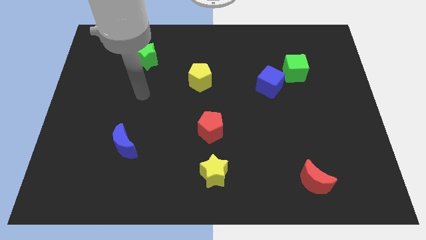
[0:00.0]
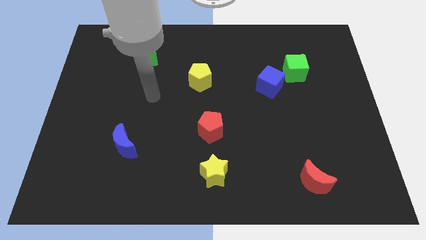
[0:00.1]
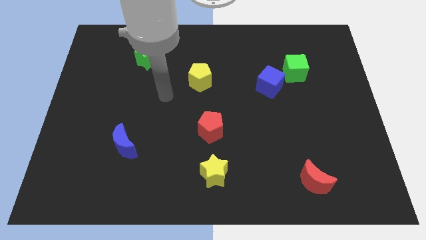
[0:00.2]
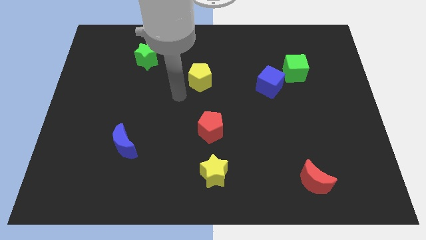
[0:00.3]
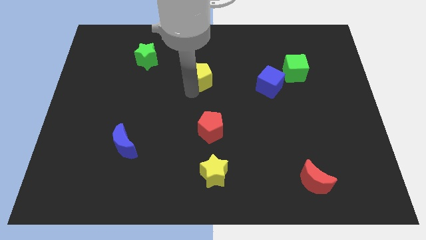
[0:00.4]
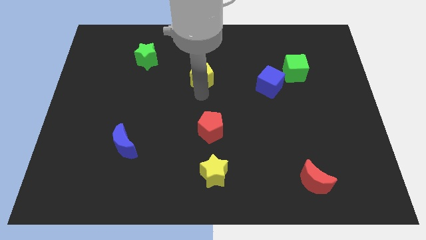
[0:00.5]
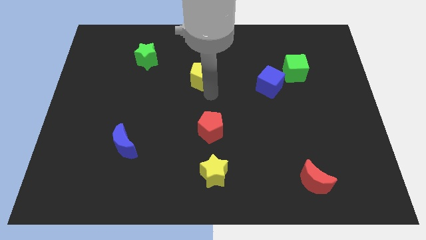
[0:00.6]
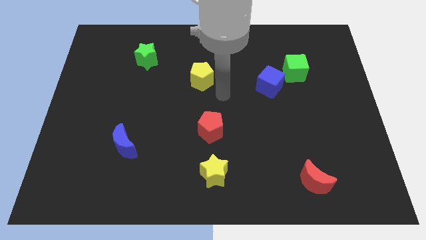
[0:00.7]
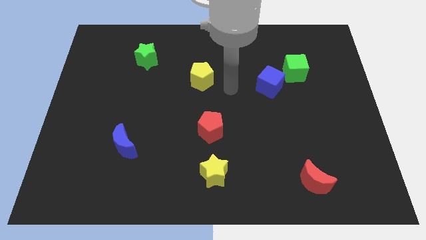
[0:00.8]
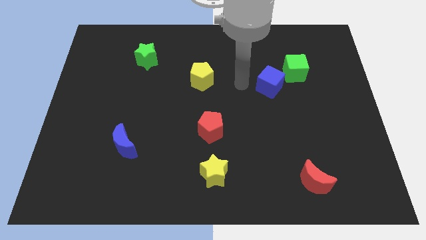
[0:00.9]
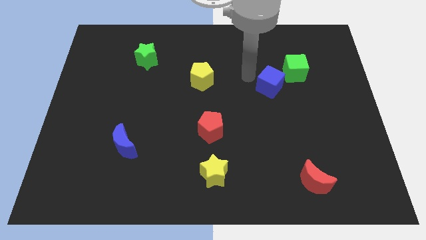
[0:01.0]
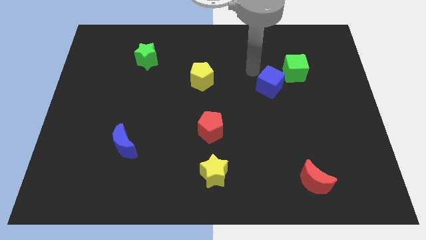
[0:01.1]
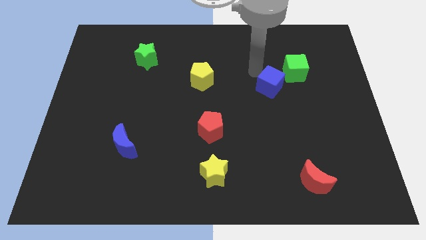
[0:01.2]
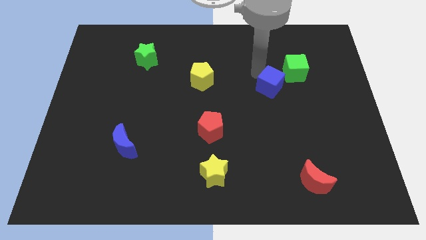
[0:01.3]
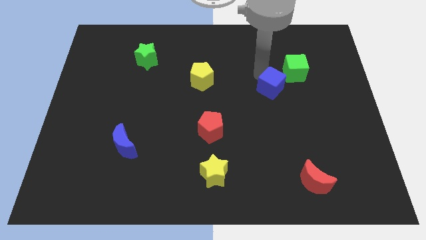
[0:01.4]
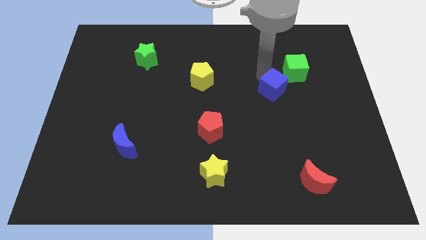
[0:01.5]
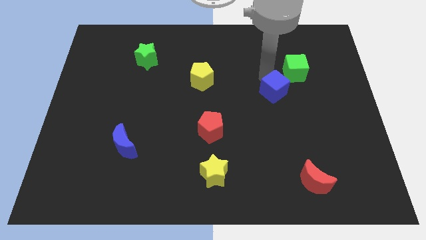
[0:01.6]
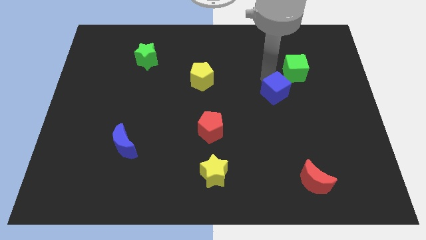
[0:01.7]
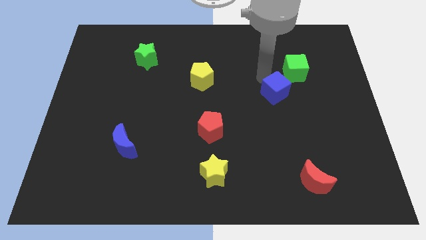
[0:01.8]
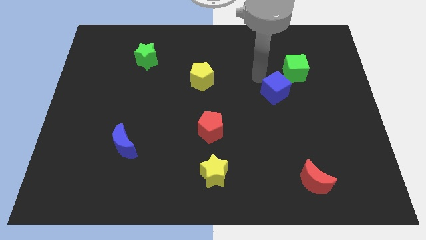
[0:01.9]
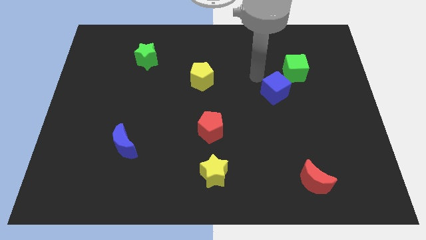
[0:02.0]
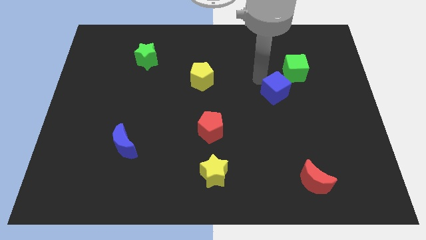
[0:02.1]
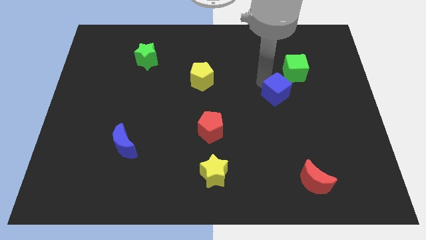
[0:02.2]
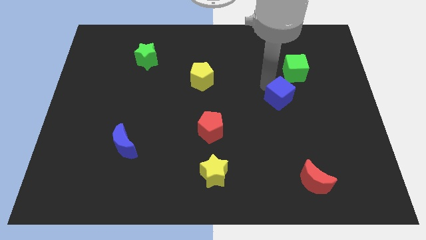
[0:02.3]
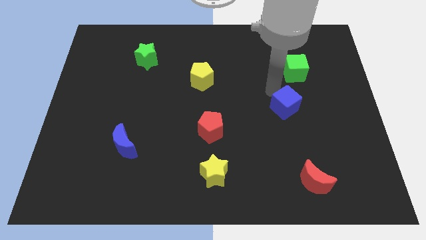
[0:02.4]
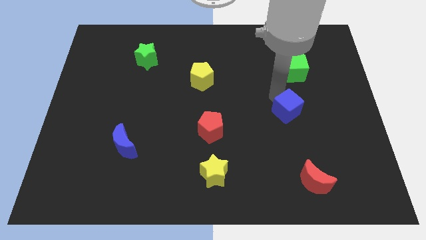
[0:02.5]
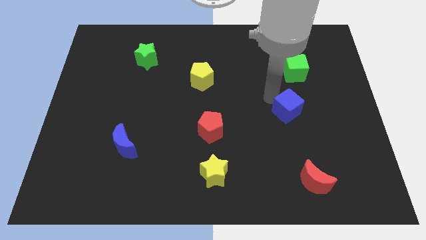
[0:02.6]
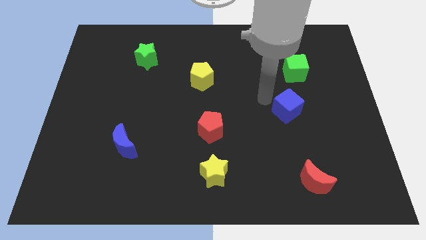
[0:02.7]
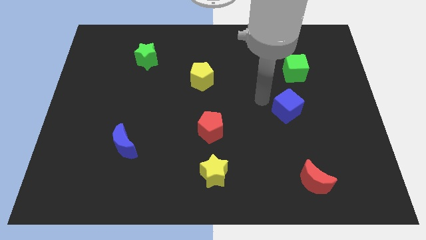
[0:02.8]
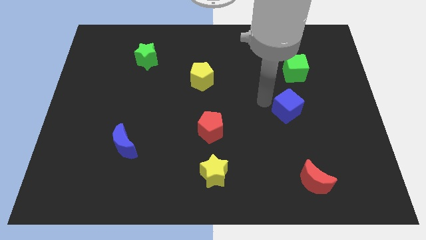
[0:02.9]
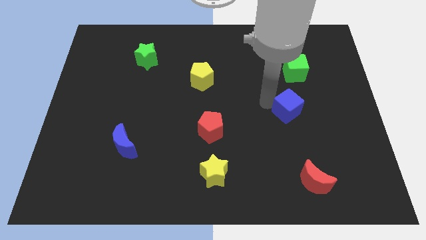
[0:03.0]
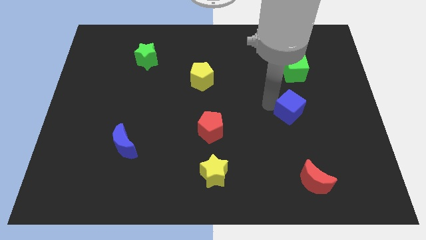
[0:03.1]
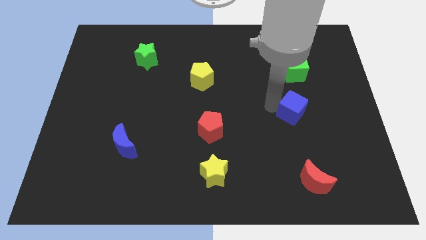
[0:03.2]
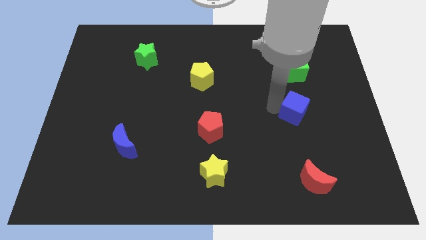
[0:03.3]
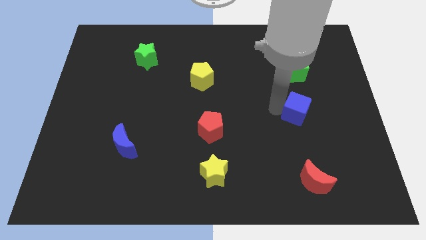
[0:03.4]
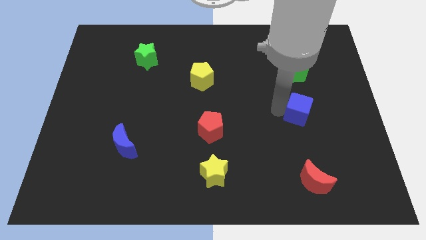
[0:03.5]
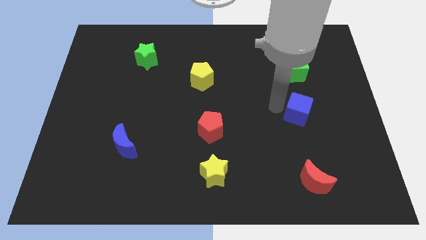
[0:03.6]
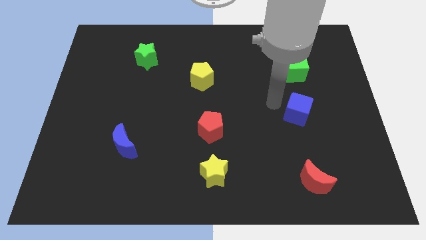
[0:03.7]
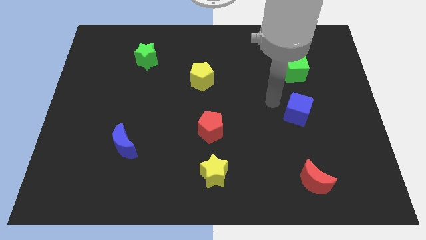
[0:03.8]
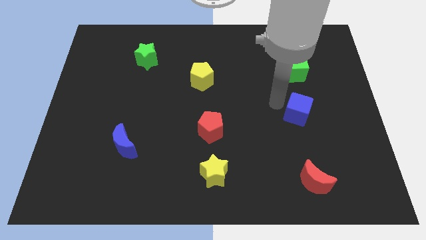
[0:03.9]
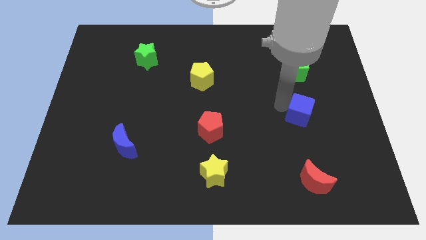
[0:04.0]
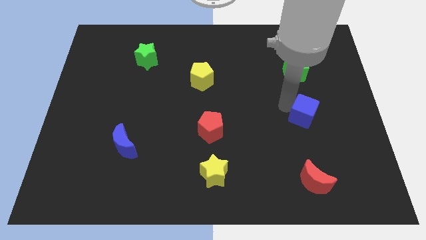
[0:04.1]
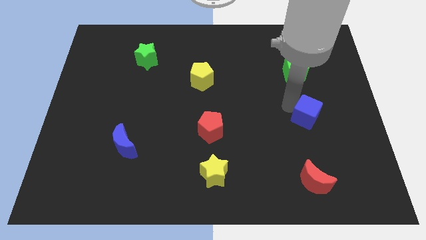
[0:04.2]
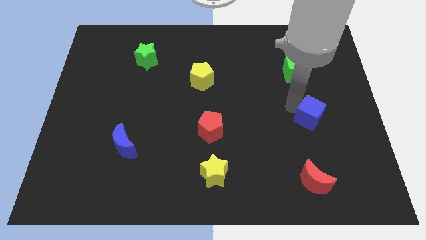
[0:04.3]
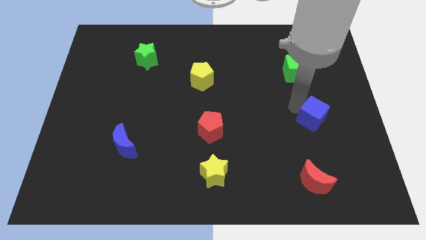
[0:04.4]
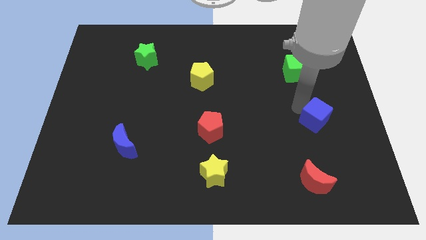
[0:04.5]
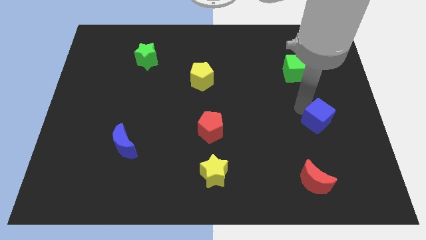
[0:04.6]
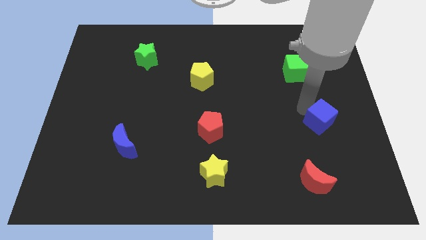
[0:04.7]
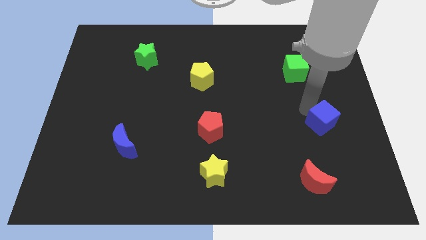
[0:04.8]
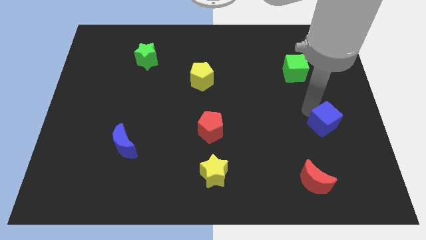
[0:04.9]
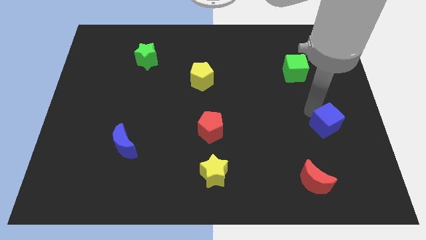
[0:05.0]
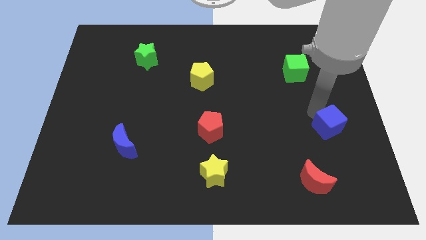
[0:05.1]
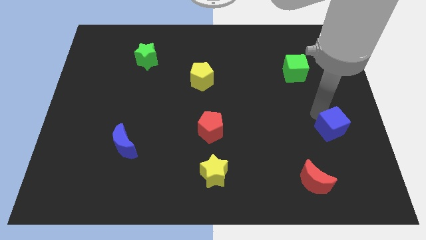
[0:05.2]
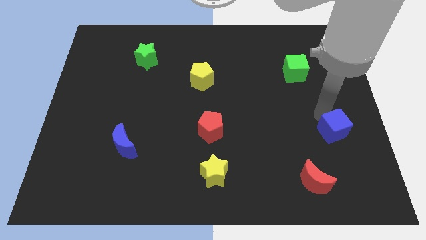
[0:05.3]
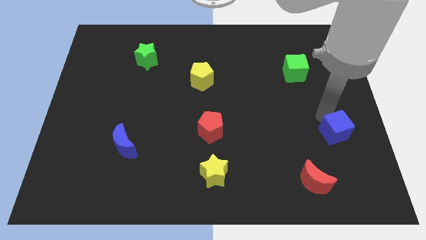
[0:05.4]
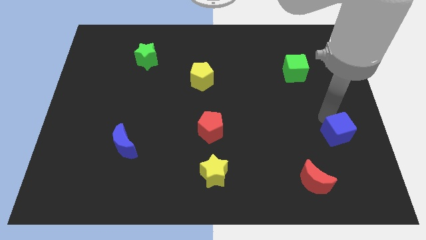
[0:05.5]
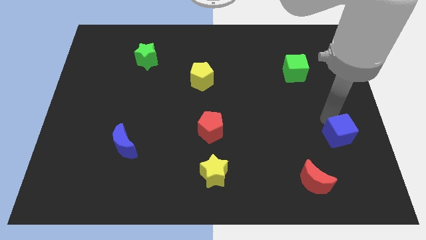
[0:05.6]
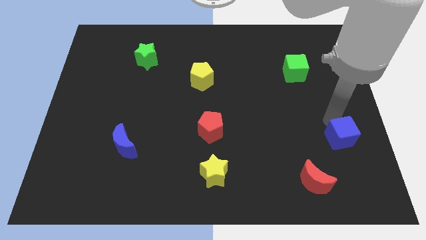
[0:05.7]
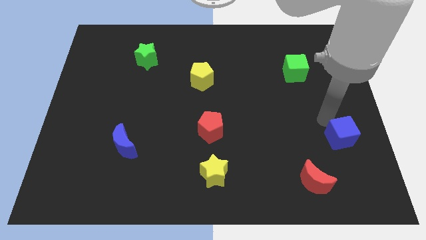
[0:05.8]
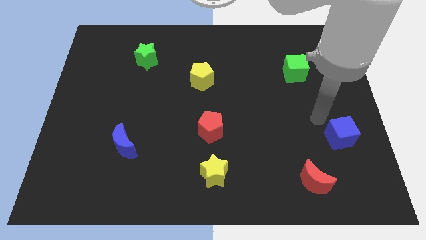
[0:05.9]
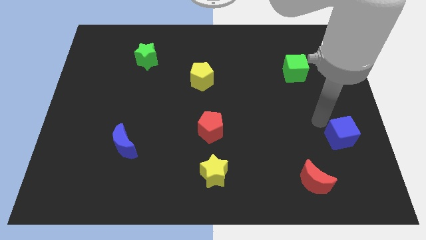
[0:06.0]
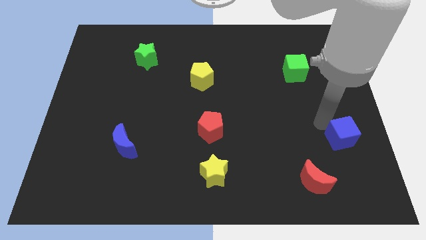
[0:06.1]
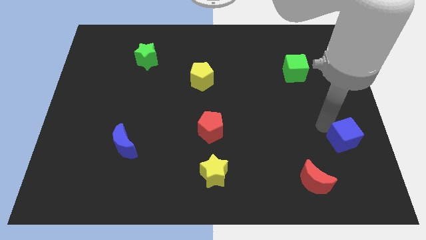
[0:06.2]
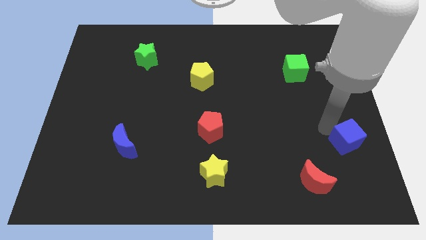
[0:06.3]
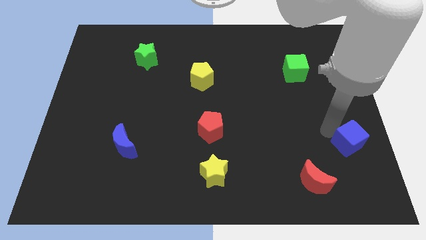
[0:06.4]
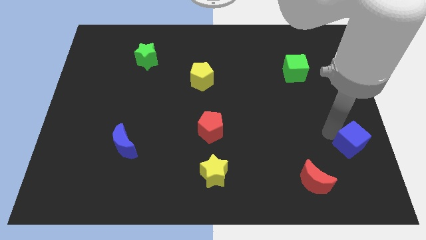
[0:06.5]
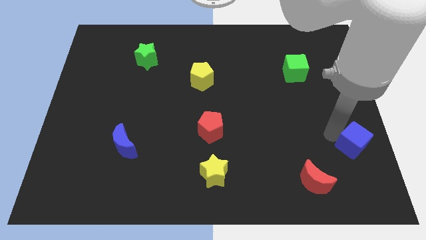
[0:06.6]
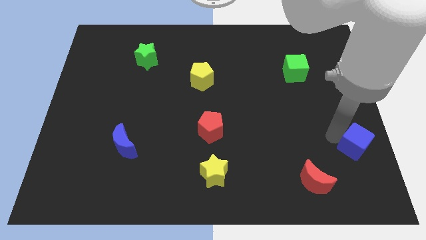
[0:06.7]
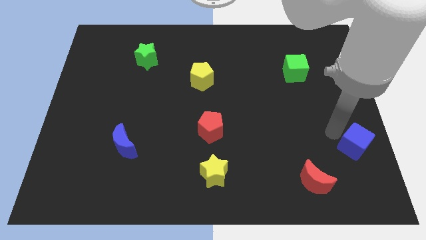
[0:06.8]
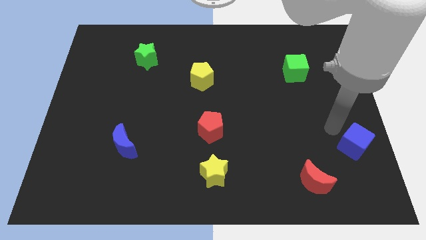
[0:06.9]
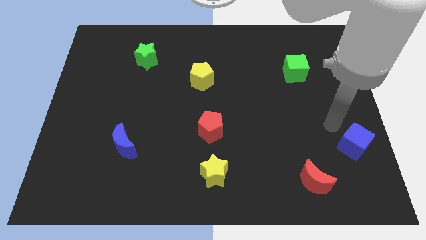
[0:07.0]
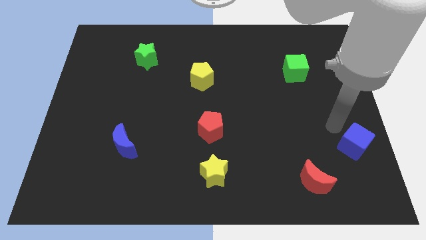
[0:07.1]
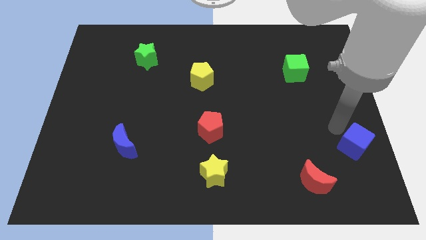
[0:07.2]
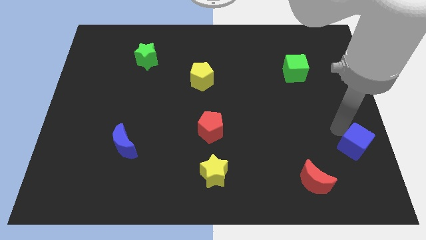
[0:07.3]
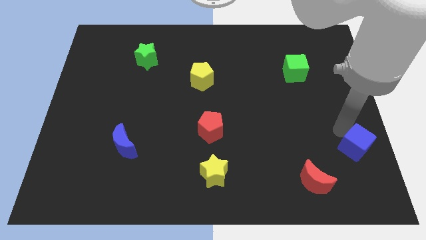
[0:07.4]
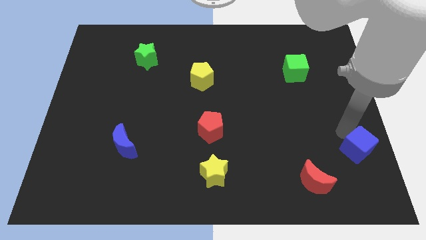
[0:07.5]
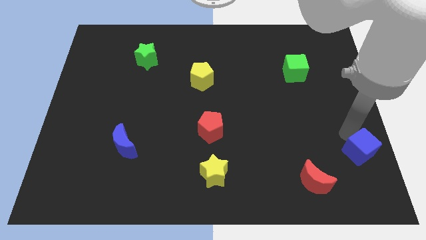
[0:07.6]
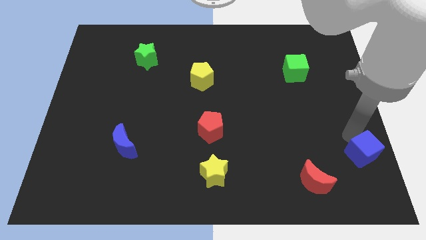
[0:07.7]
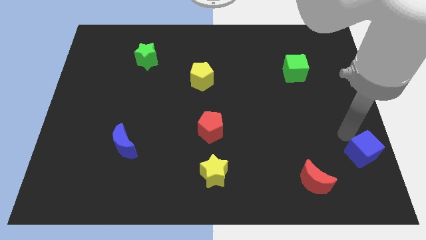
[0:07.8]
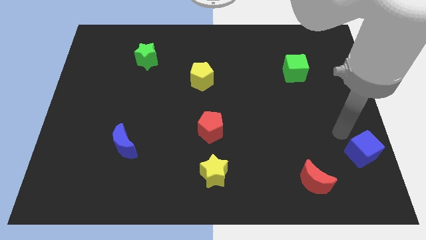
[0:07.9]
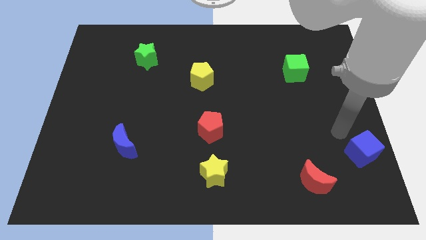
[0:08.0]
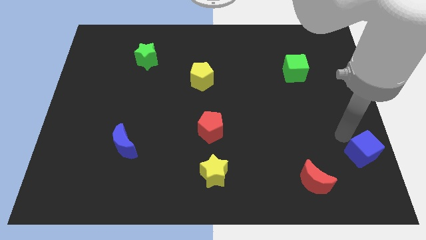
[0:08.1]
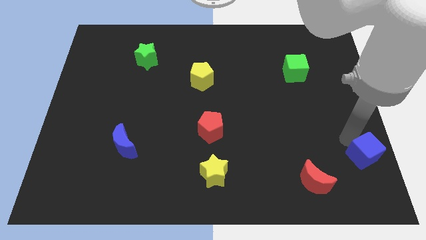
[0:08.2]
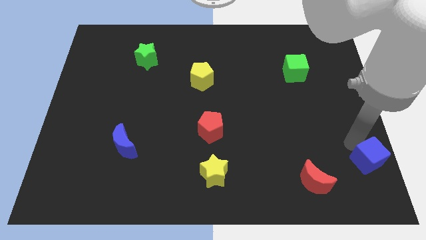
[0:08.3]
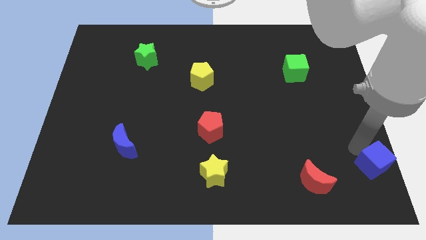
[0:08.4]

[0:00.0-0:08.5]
put the blue cube to the bottom right of the board
